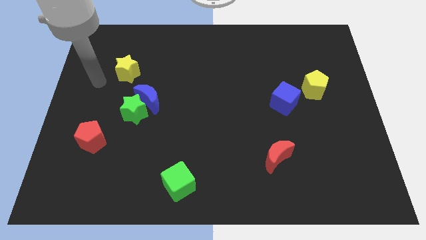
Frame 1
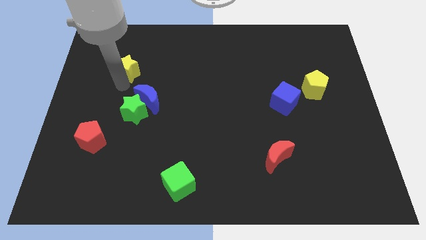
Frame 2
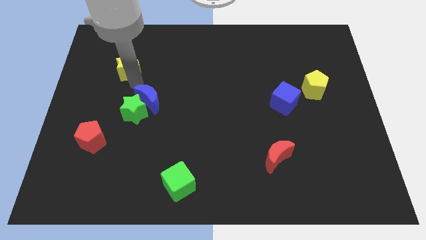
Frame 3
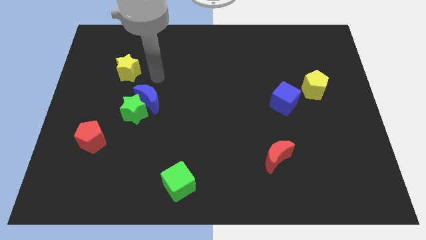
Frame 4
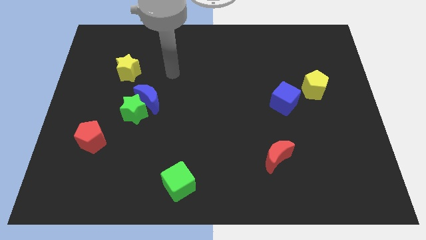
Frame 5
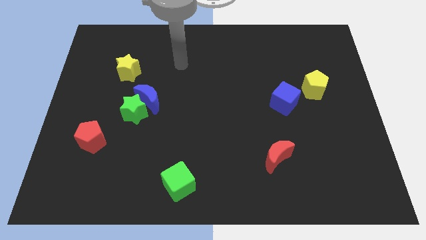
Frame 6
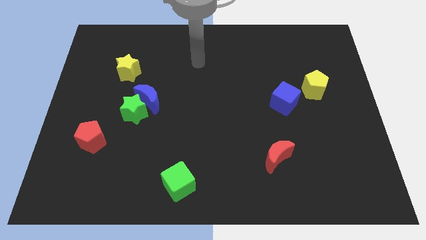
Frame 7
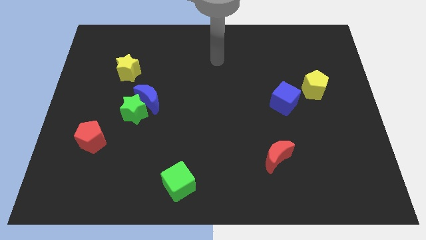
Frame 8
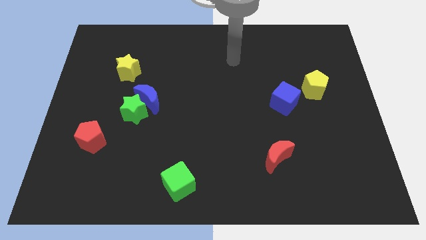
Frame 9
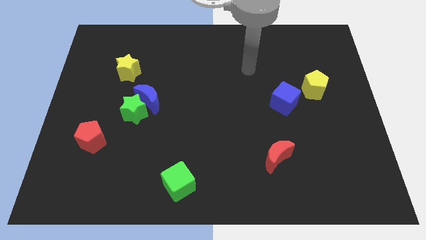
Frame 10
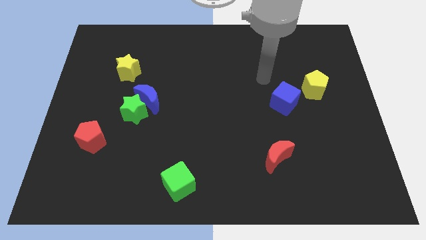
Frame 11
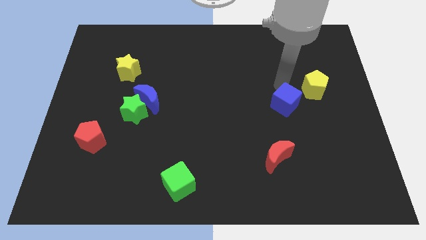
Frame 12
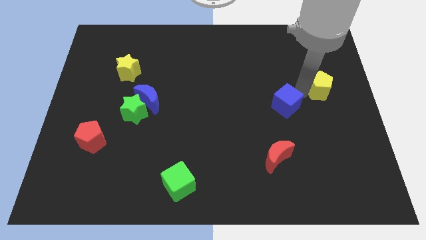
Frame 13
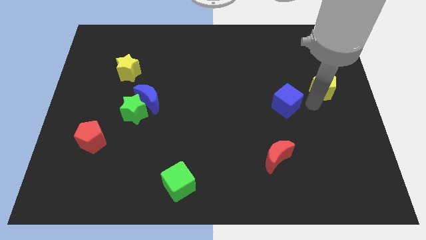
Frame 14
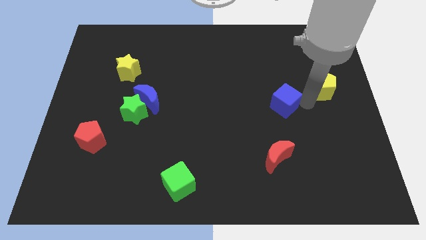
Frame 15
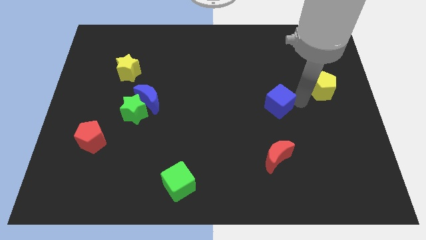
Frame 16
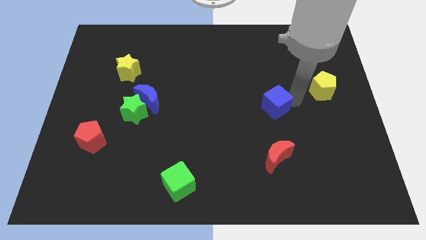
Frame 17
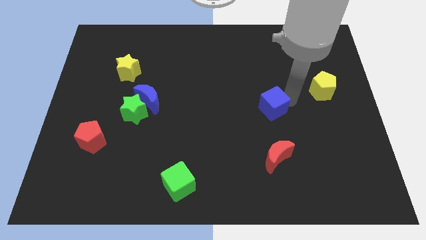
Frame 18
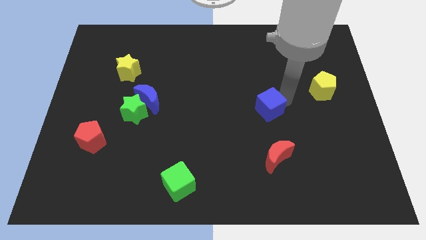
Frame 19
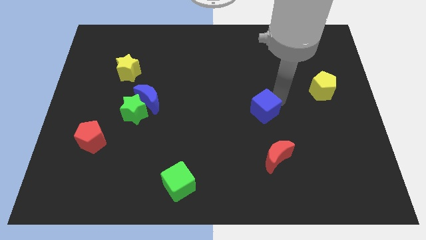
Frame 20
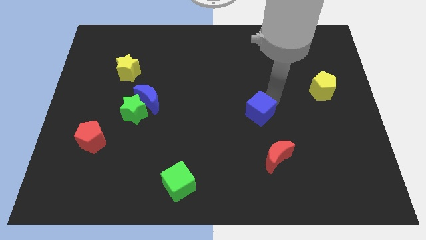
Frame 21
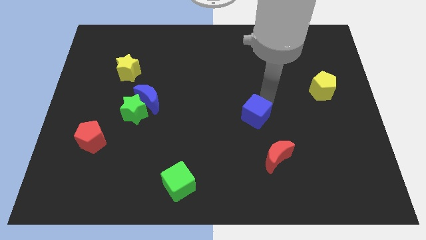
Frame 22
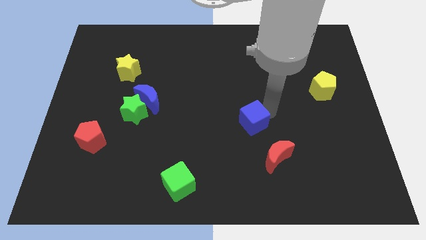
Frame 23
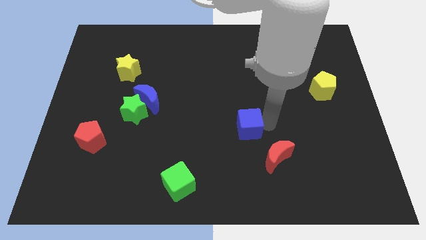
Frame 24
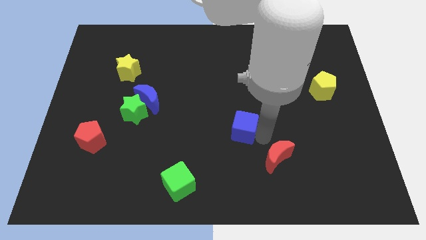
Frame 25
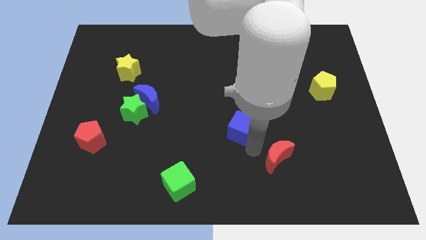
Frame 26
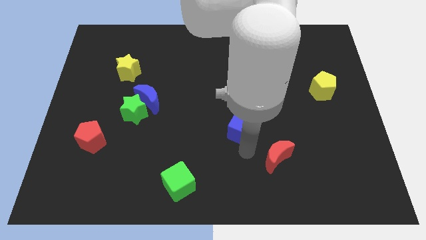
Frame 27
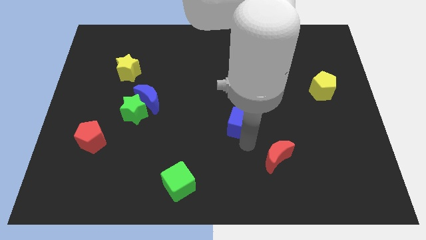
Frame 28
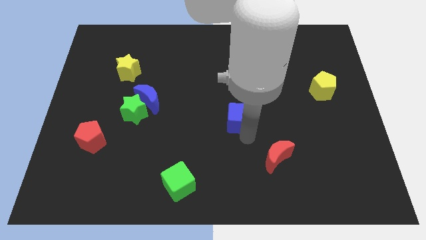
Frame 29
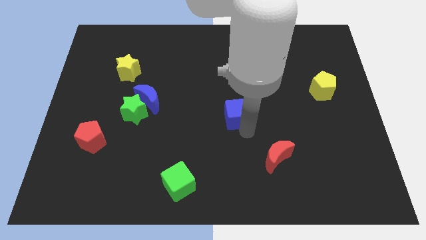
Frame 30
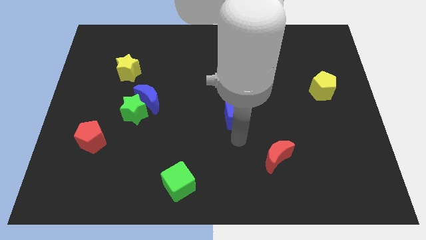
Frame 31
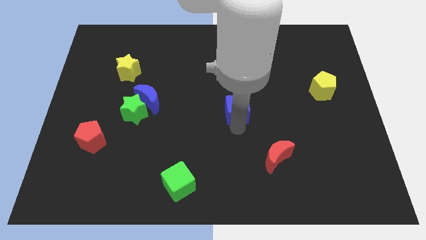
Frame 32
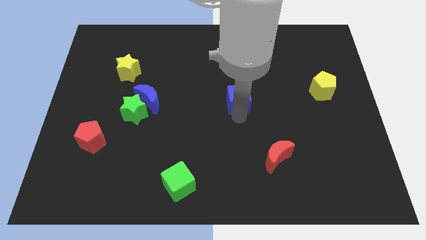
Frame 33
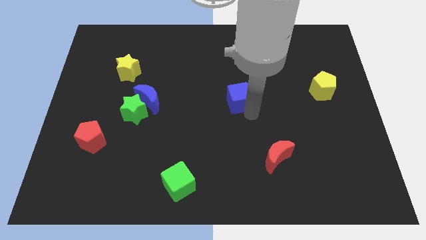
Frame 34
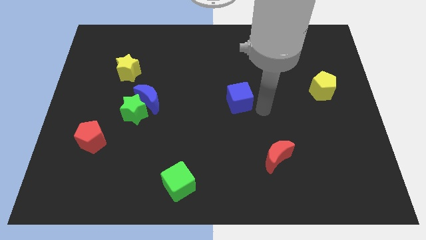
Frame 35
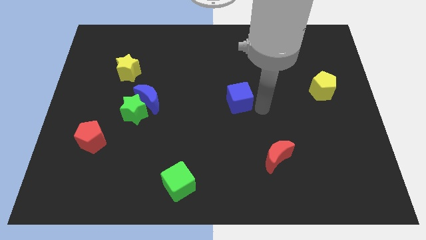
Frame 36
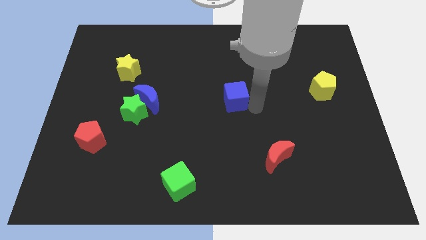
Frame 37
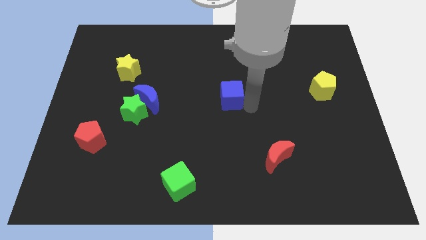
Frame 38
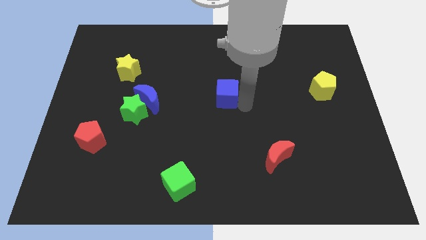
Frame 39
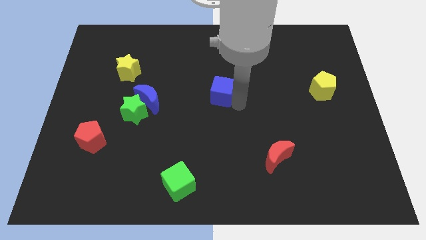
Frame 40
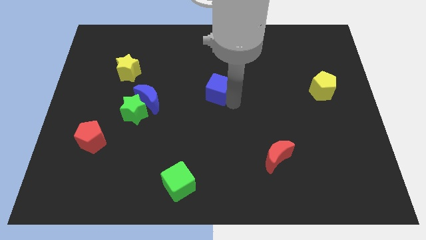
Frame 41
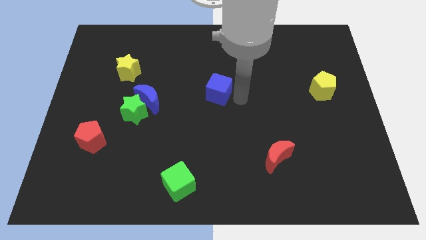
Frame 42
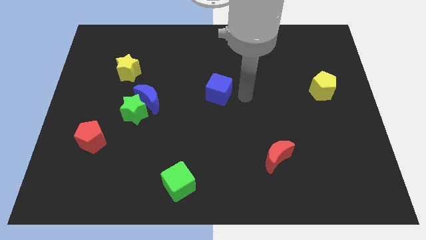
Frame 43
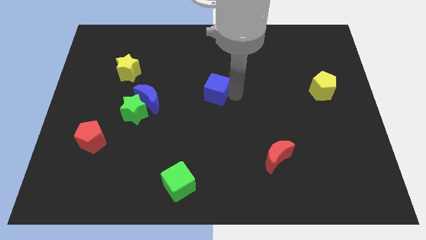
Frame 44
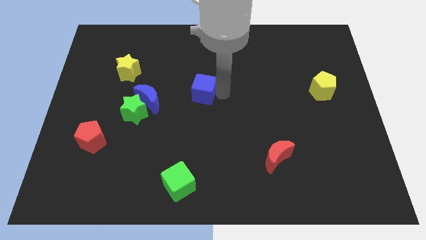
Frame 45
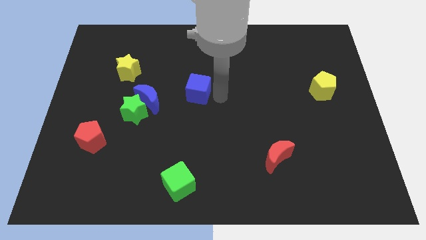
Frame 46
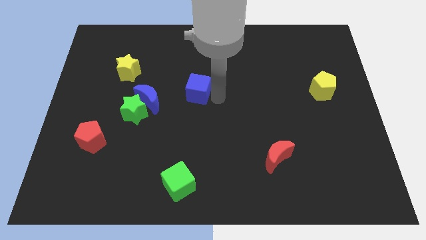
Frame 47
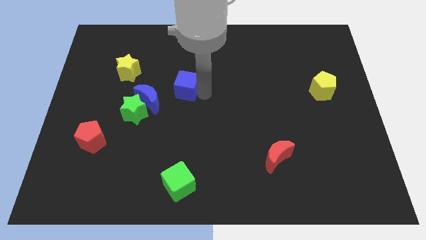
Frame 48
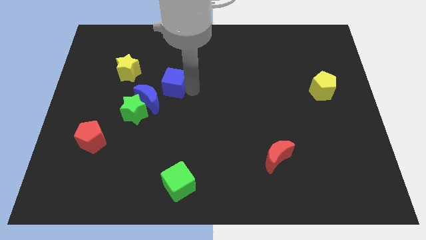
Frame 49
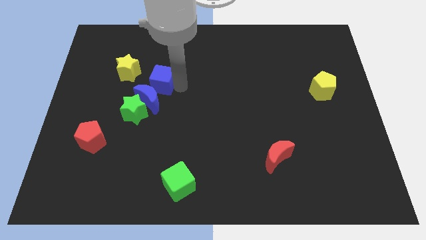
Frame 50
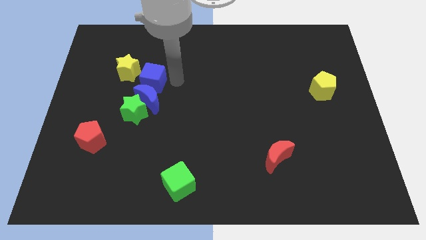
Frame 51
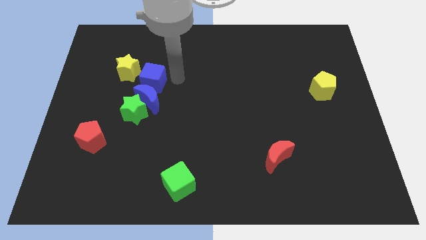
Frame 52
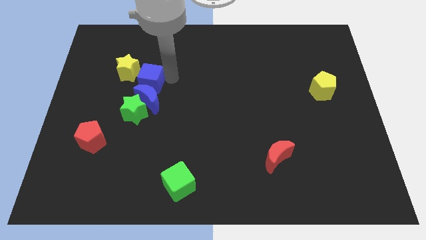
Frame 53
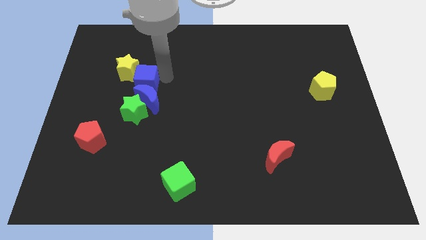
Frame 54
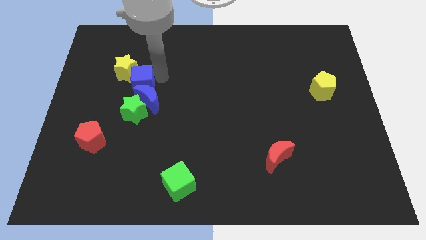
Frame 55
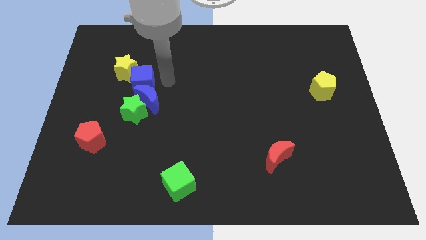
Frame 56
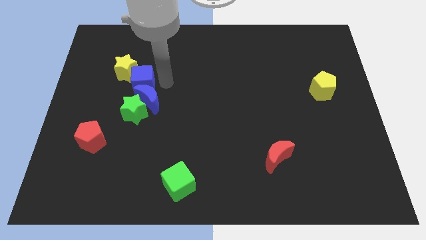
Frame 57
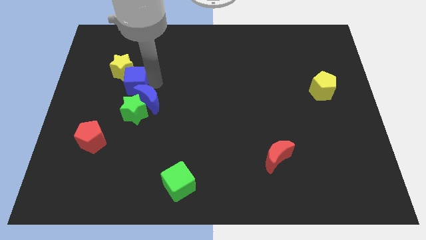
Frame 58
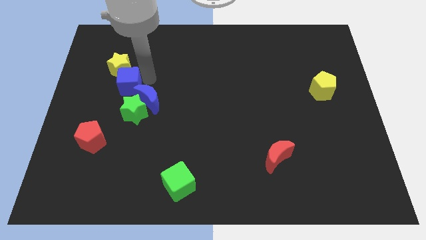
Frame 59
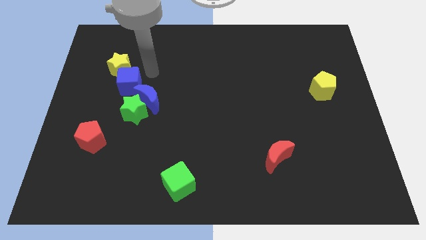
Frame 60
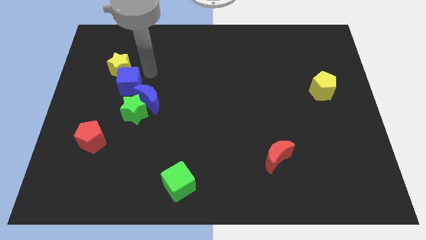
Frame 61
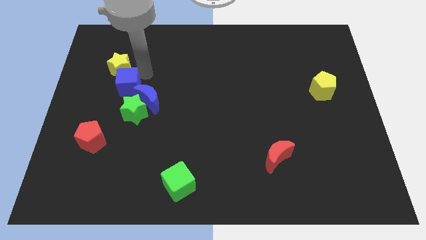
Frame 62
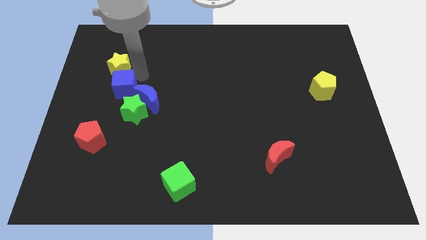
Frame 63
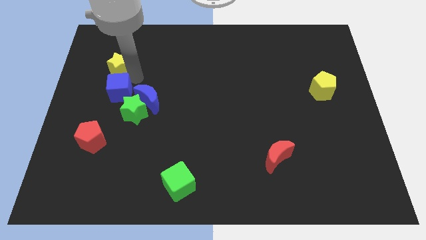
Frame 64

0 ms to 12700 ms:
put the blue cube above the red pentagon

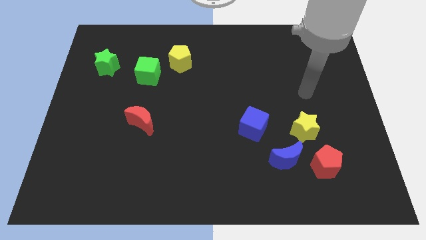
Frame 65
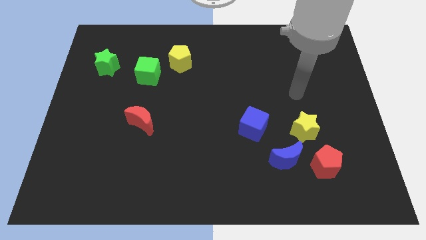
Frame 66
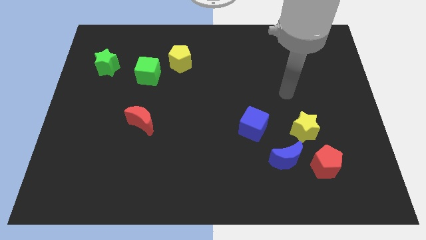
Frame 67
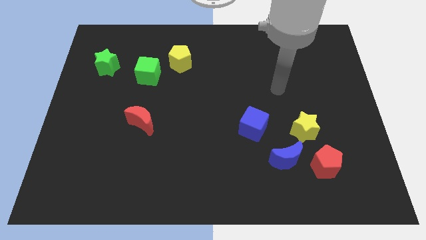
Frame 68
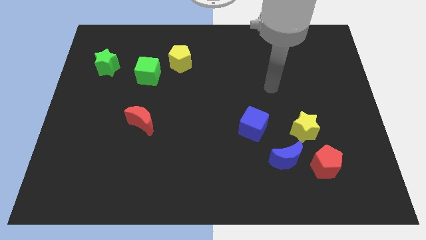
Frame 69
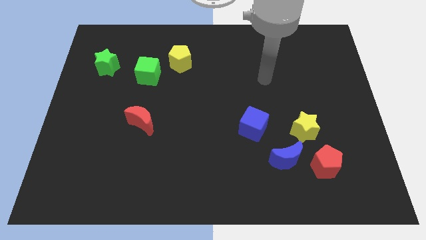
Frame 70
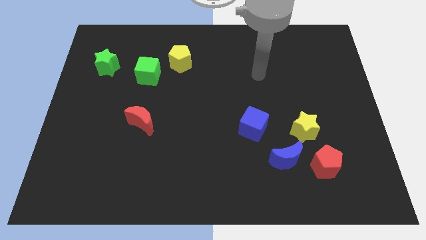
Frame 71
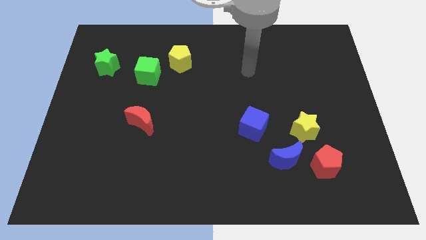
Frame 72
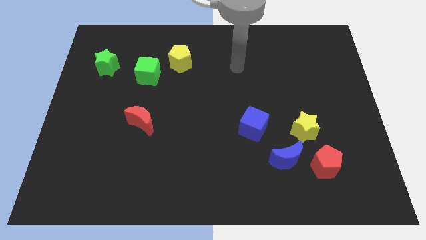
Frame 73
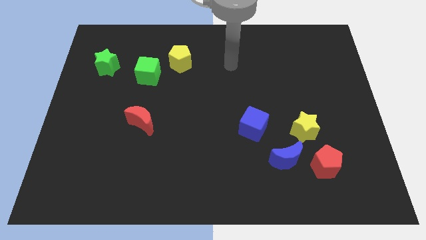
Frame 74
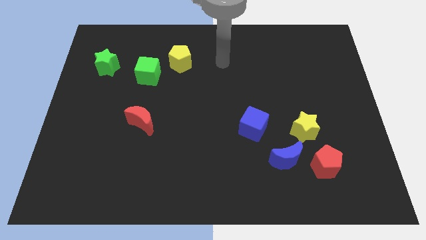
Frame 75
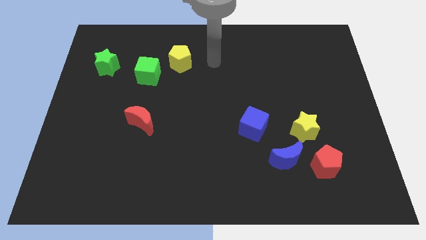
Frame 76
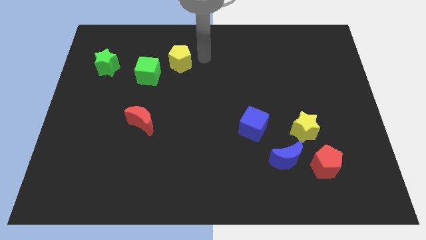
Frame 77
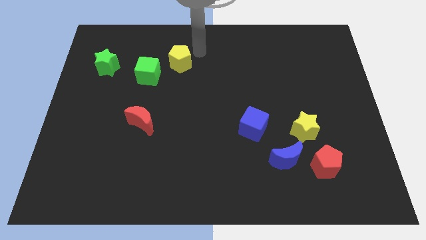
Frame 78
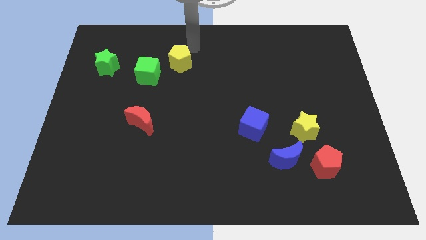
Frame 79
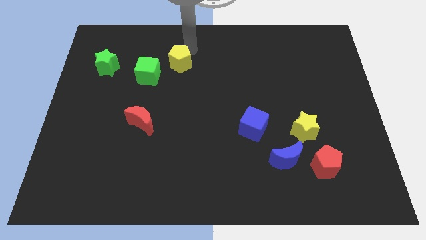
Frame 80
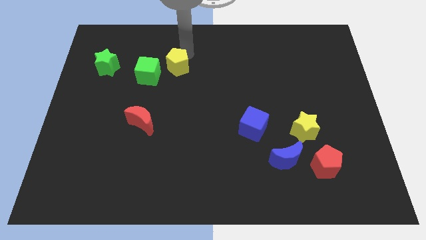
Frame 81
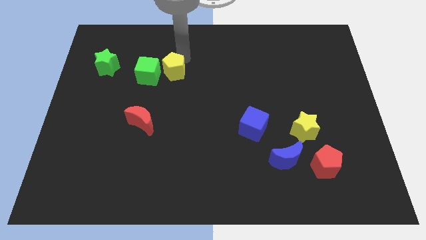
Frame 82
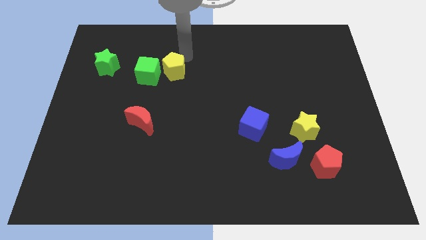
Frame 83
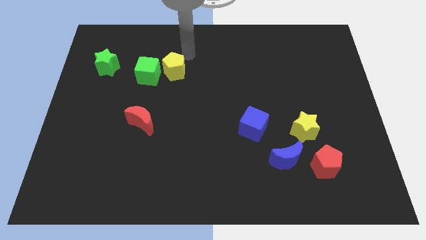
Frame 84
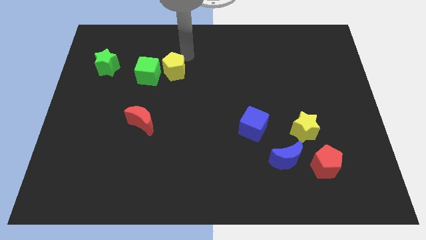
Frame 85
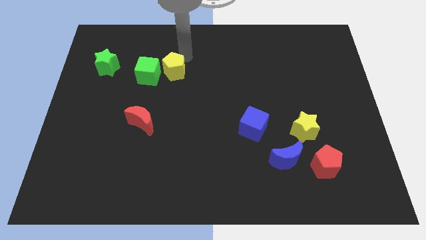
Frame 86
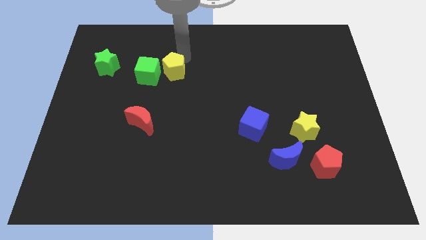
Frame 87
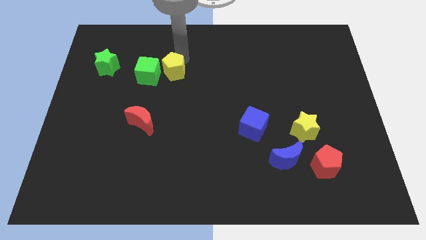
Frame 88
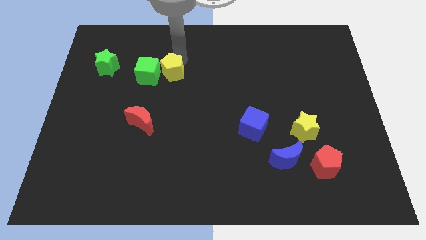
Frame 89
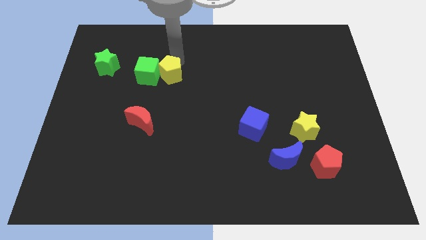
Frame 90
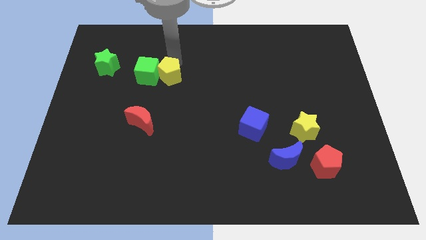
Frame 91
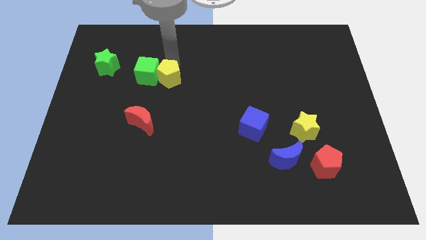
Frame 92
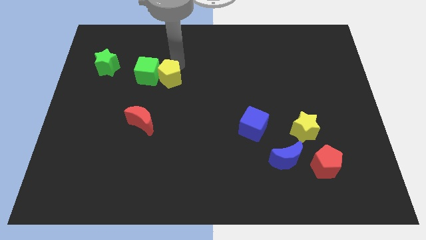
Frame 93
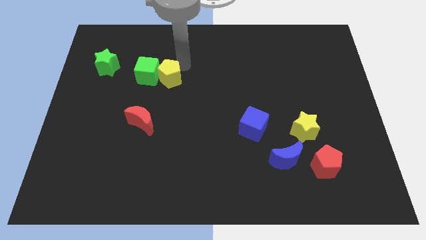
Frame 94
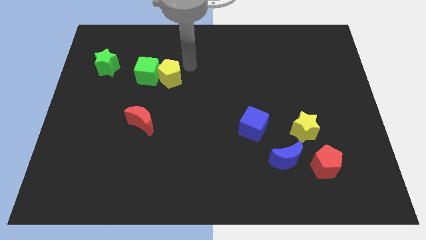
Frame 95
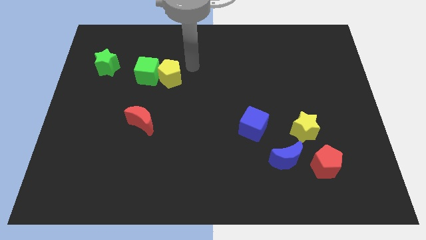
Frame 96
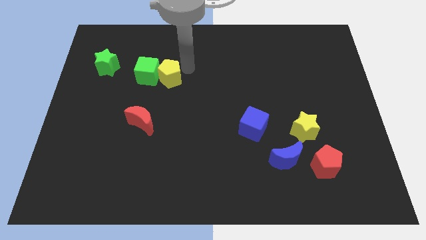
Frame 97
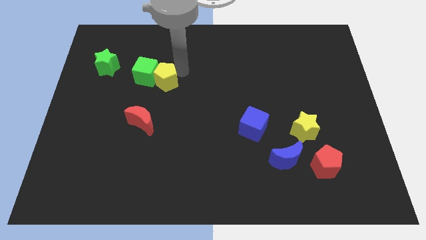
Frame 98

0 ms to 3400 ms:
slide the yellow pentagon to the top side of the red moon
